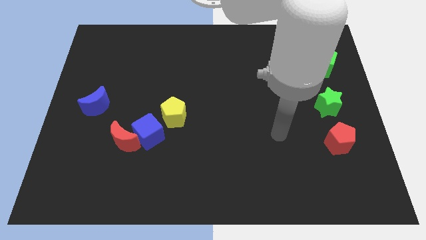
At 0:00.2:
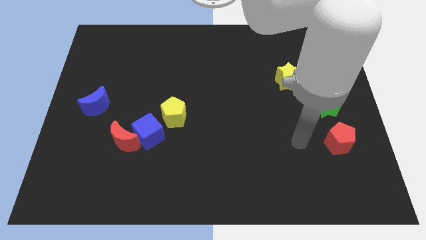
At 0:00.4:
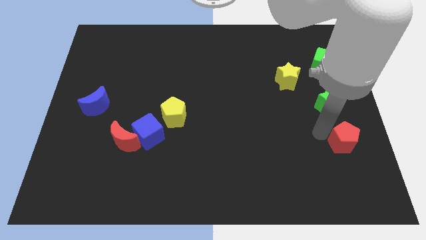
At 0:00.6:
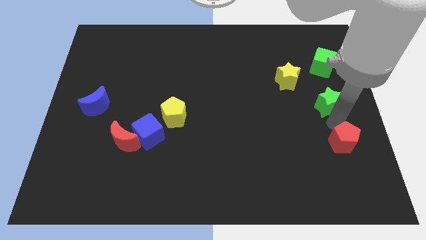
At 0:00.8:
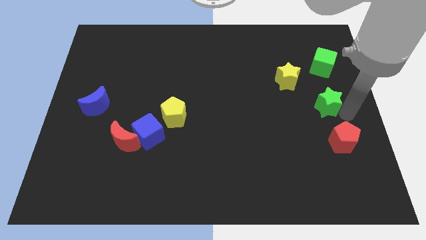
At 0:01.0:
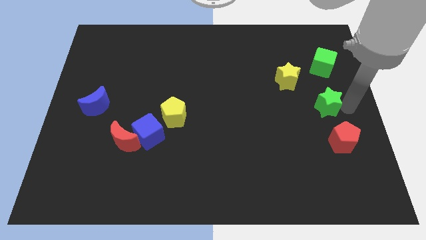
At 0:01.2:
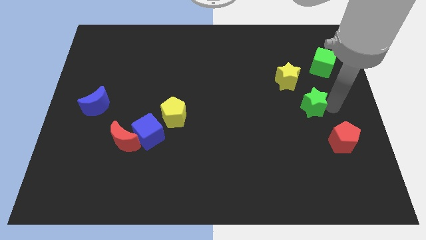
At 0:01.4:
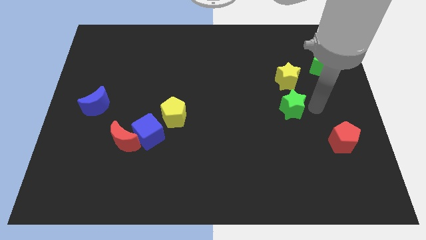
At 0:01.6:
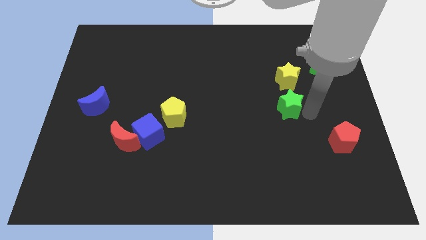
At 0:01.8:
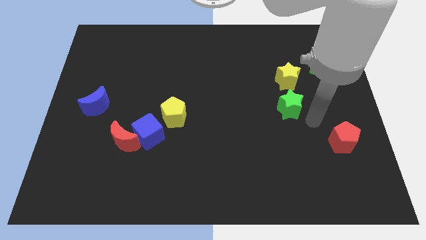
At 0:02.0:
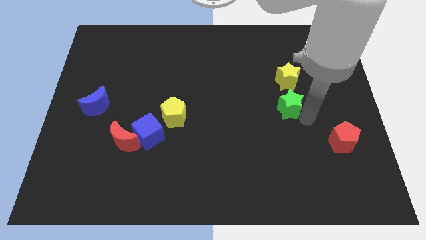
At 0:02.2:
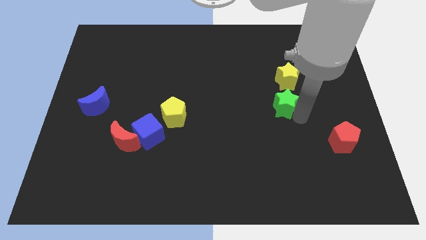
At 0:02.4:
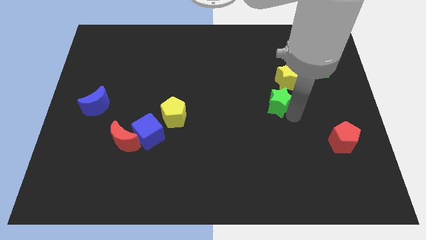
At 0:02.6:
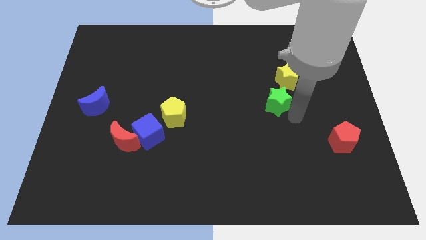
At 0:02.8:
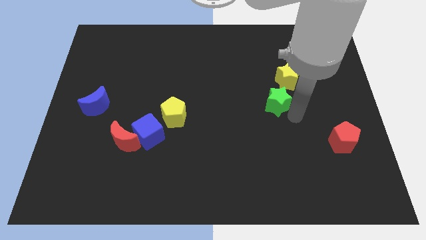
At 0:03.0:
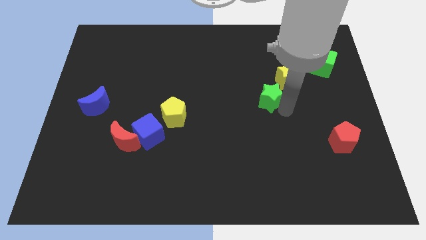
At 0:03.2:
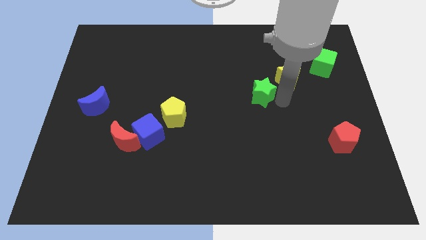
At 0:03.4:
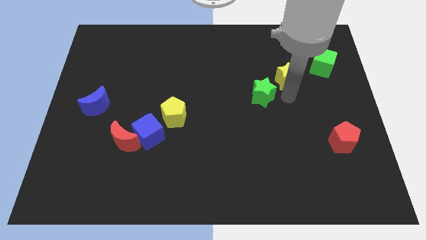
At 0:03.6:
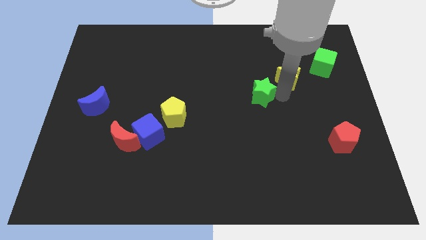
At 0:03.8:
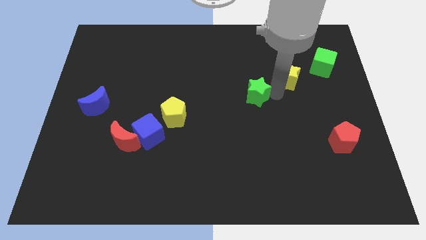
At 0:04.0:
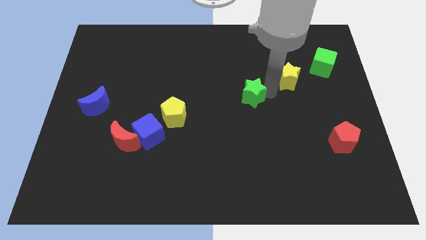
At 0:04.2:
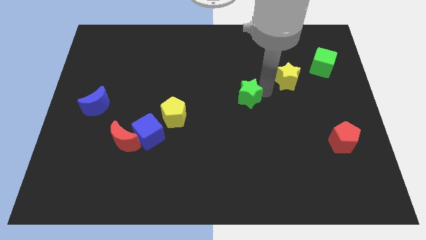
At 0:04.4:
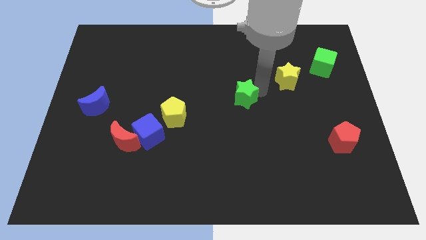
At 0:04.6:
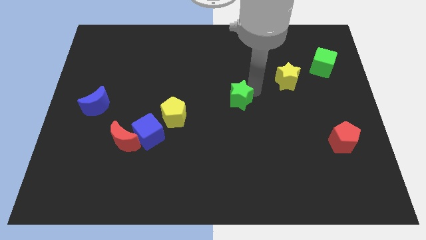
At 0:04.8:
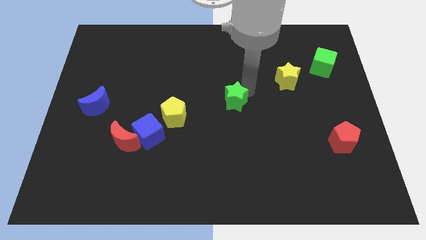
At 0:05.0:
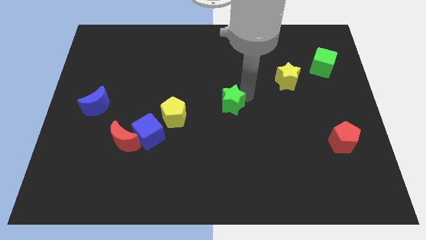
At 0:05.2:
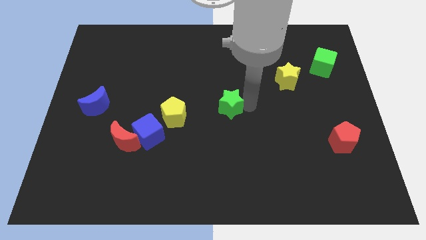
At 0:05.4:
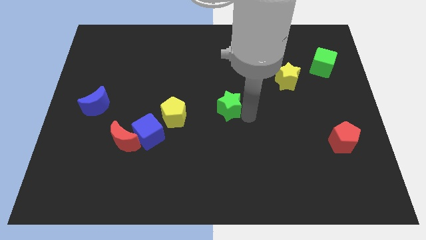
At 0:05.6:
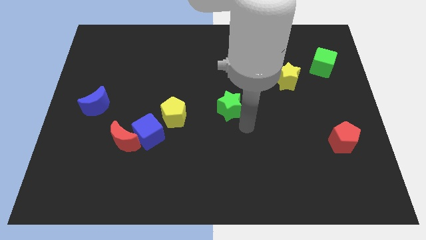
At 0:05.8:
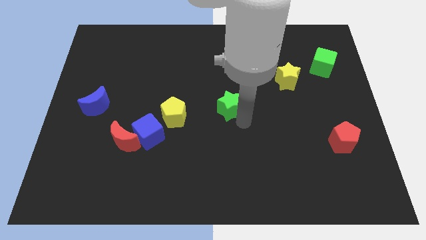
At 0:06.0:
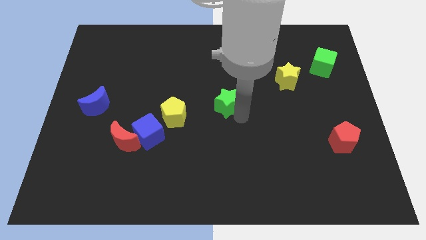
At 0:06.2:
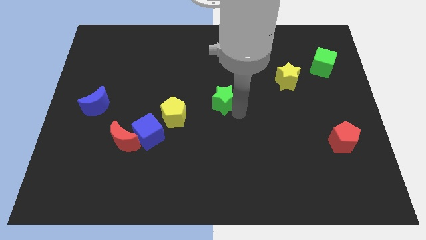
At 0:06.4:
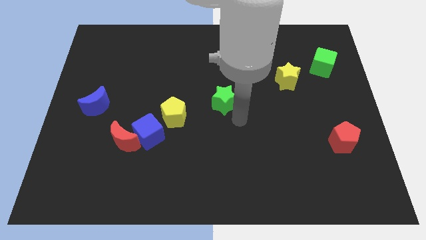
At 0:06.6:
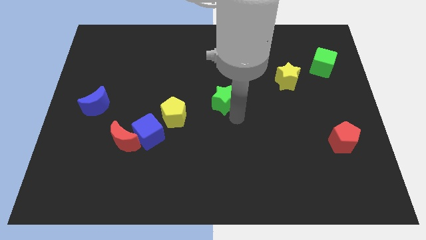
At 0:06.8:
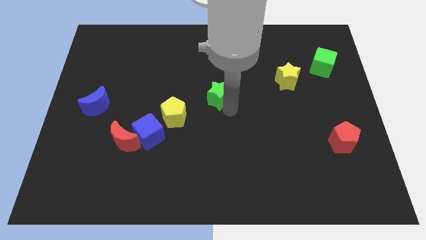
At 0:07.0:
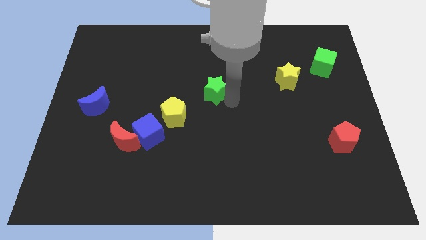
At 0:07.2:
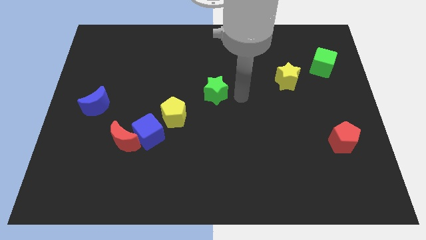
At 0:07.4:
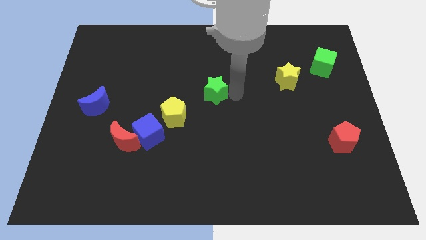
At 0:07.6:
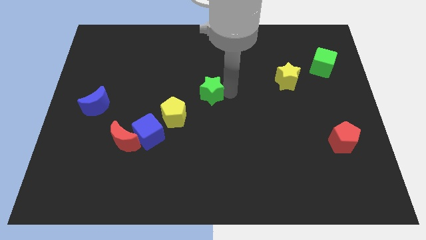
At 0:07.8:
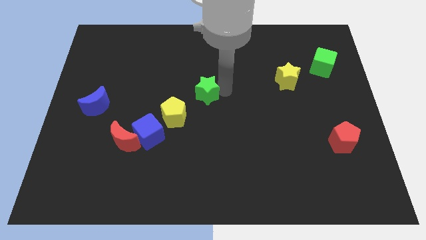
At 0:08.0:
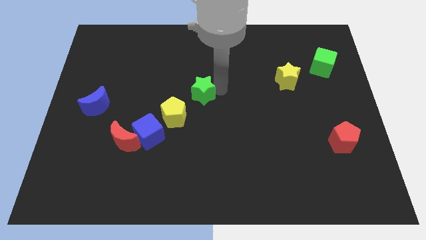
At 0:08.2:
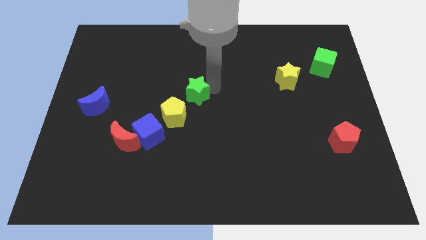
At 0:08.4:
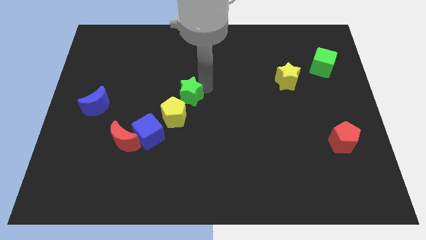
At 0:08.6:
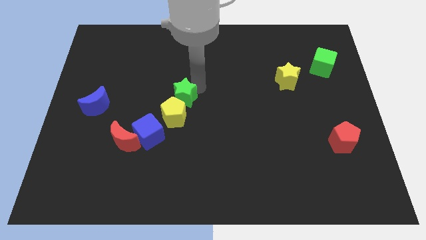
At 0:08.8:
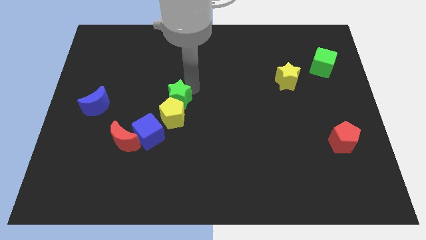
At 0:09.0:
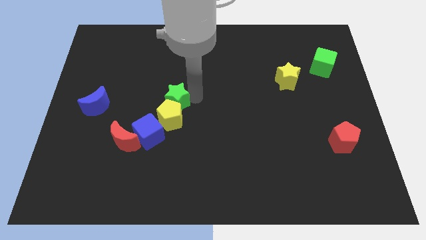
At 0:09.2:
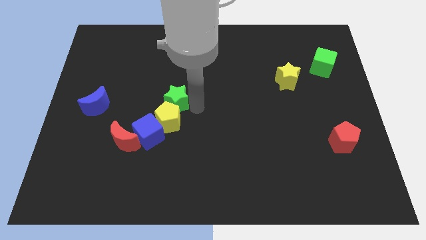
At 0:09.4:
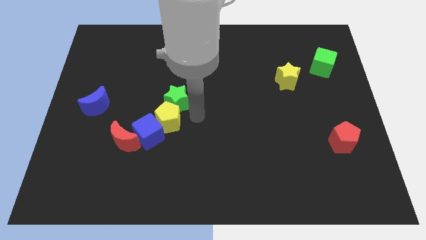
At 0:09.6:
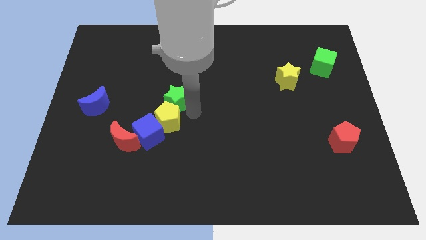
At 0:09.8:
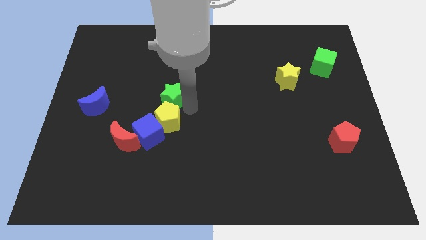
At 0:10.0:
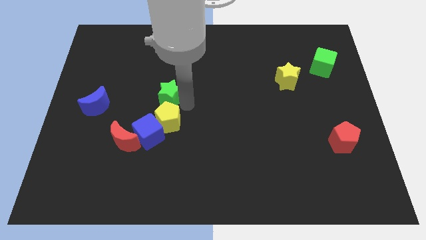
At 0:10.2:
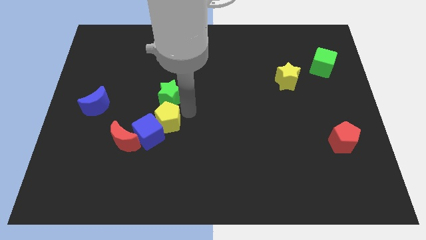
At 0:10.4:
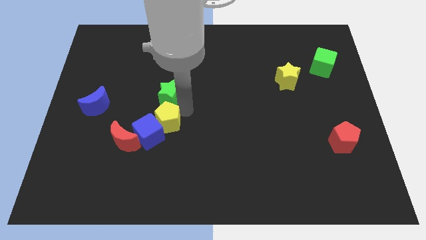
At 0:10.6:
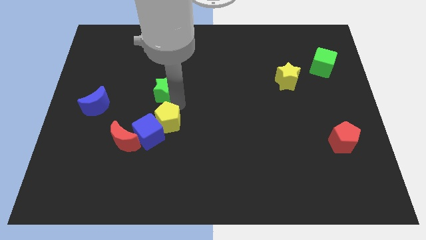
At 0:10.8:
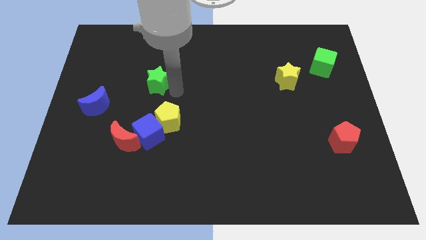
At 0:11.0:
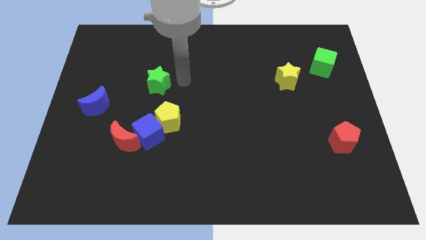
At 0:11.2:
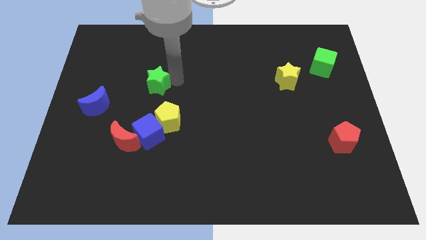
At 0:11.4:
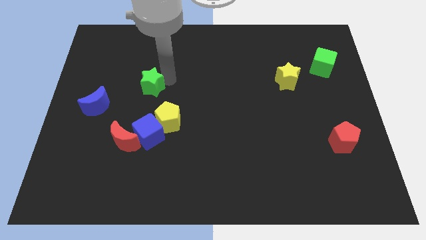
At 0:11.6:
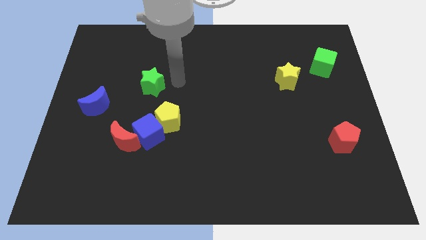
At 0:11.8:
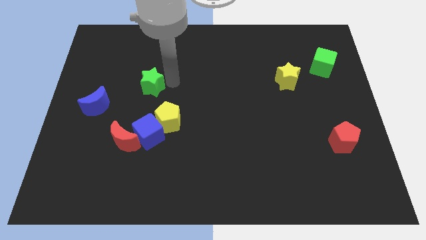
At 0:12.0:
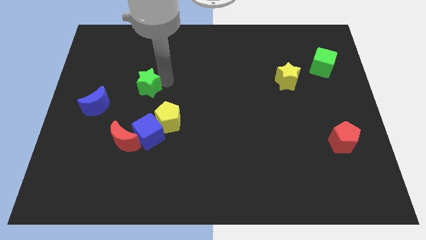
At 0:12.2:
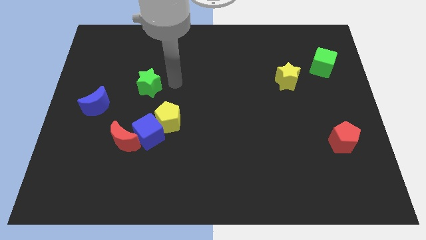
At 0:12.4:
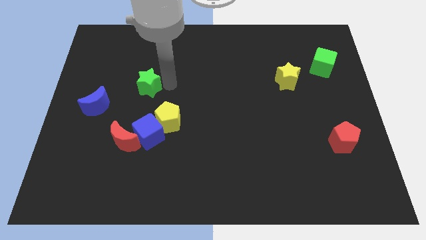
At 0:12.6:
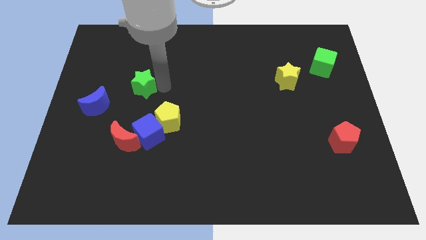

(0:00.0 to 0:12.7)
push the green star to the top right side of the blue moon
